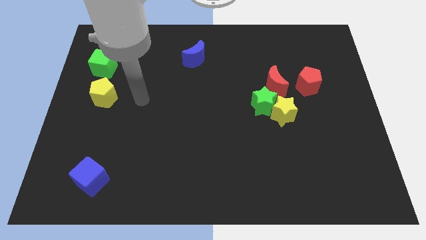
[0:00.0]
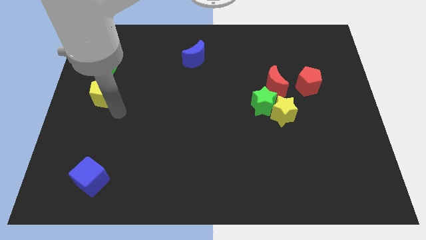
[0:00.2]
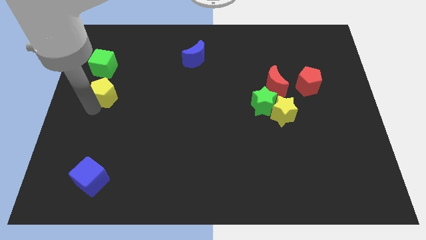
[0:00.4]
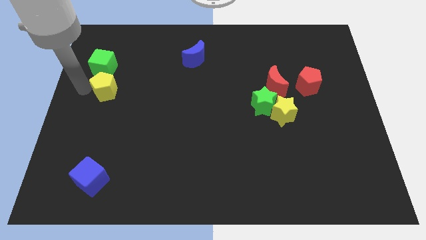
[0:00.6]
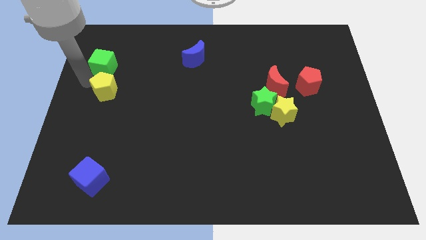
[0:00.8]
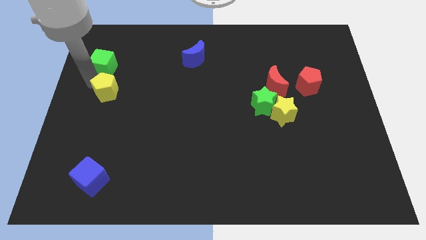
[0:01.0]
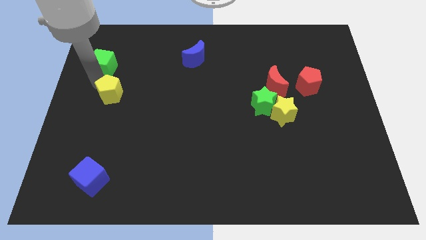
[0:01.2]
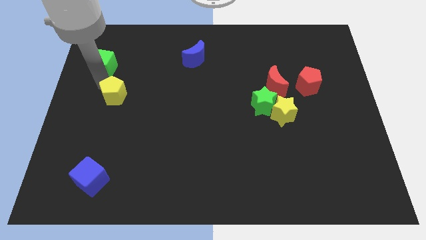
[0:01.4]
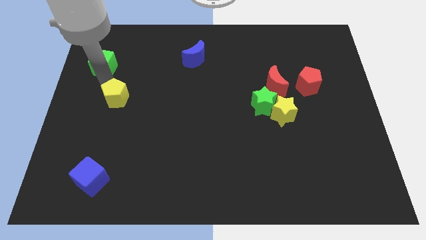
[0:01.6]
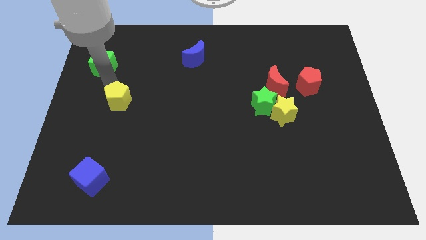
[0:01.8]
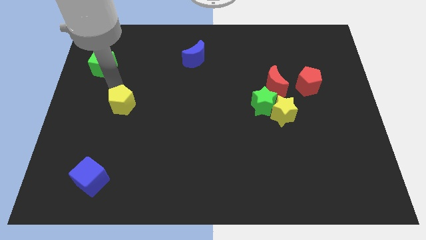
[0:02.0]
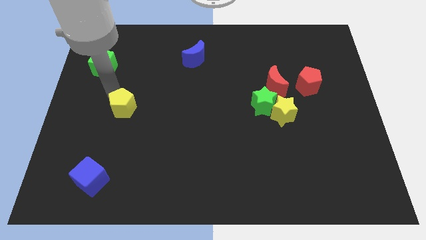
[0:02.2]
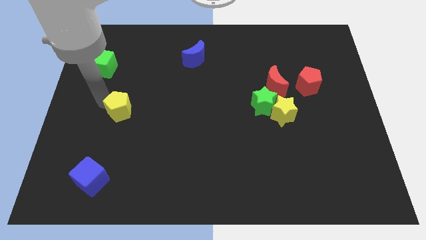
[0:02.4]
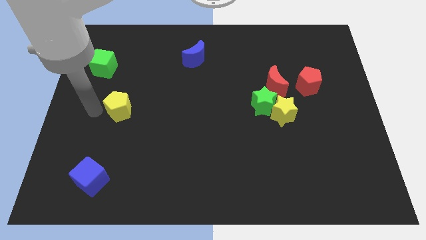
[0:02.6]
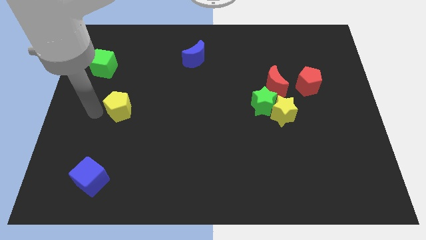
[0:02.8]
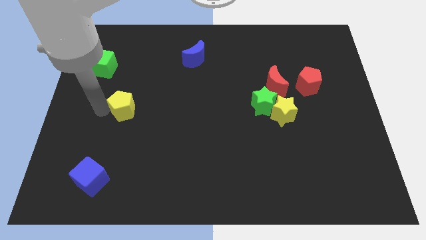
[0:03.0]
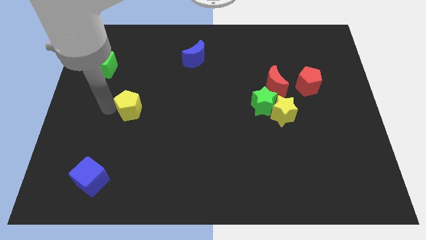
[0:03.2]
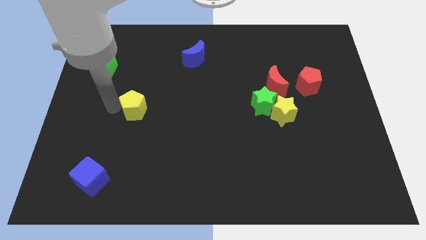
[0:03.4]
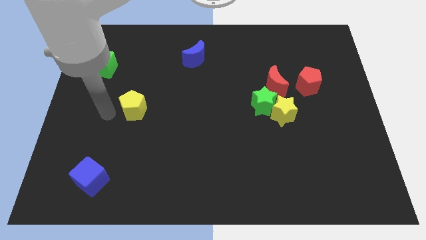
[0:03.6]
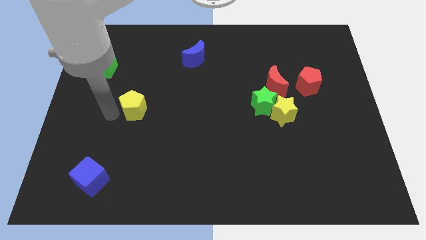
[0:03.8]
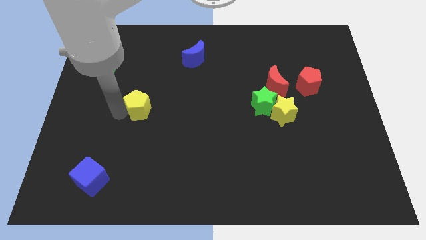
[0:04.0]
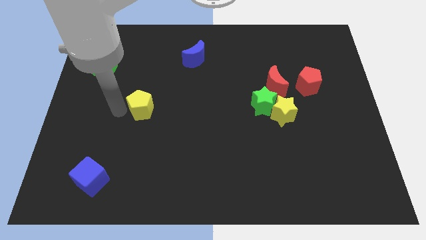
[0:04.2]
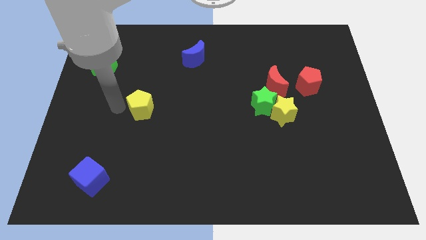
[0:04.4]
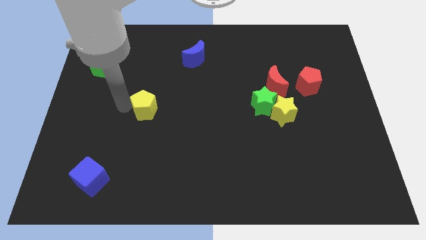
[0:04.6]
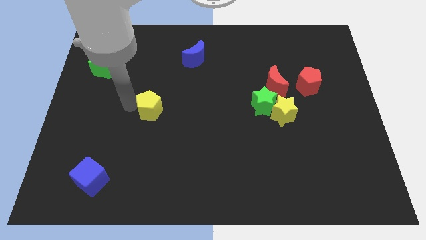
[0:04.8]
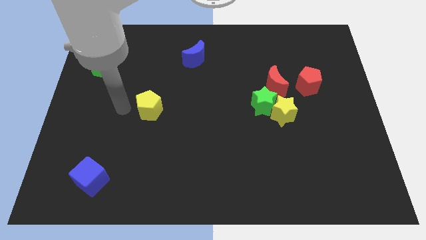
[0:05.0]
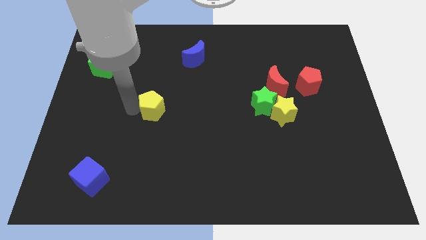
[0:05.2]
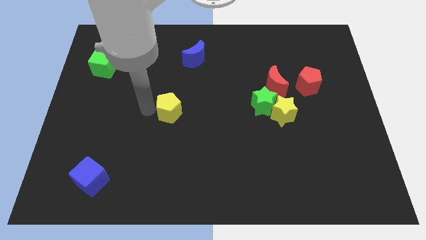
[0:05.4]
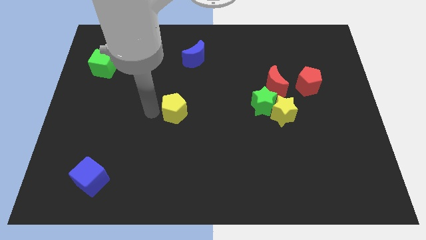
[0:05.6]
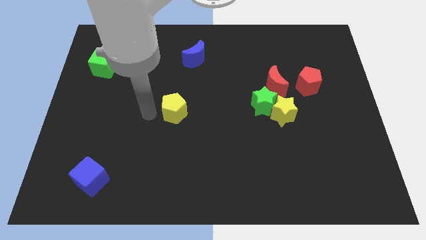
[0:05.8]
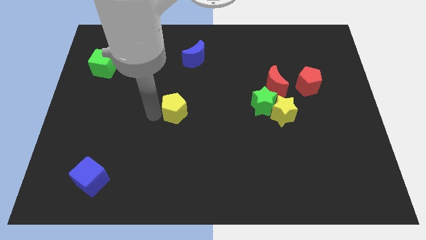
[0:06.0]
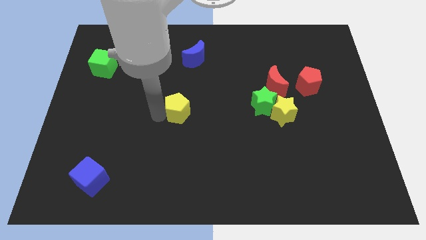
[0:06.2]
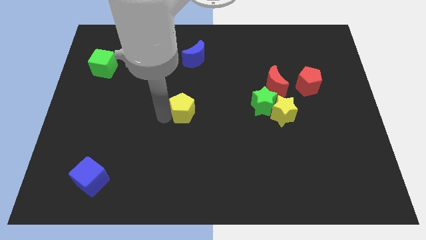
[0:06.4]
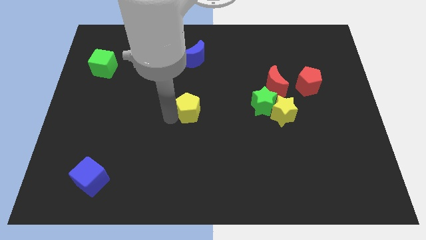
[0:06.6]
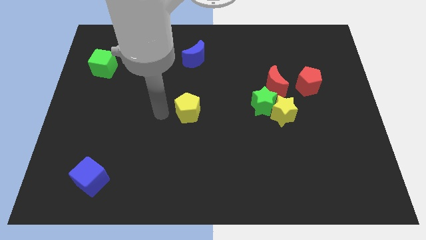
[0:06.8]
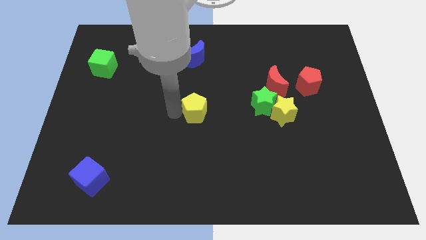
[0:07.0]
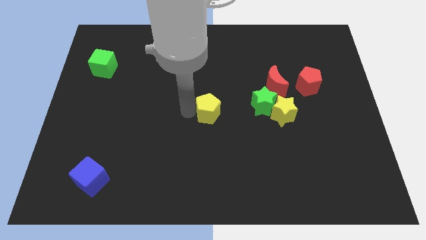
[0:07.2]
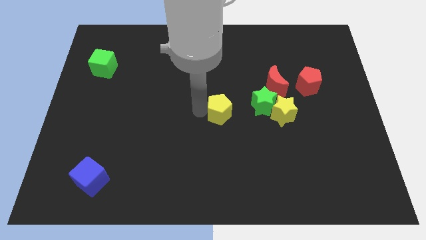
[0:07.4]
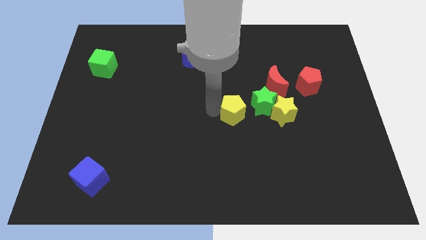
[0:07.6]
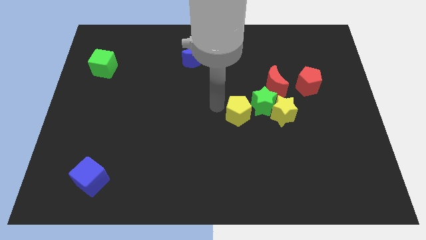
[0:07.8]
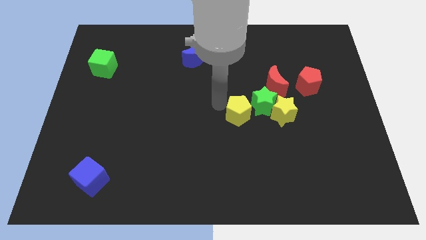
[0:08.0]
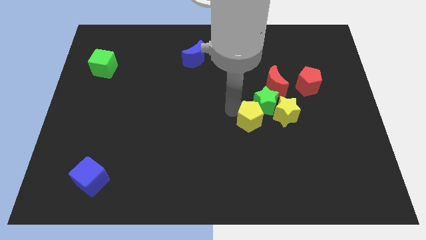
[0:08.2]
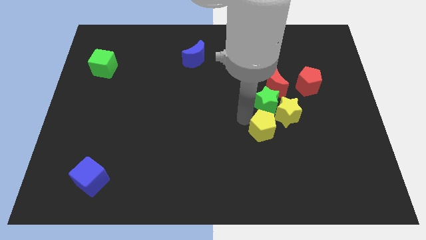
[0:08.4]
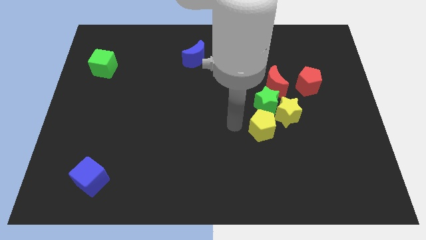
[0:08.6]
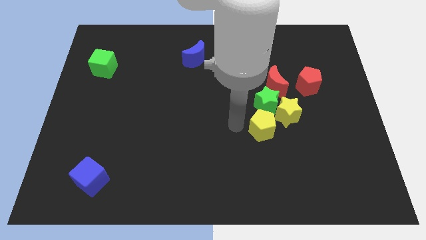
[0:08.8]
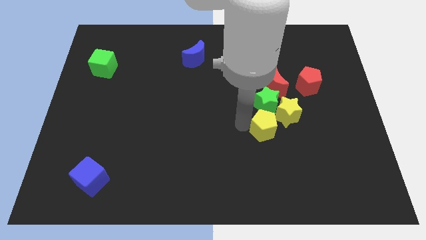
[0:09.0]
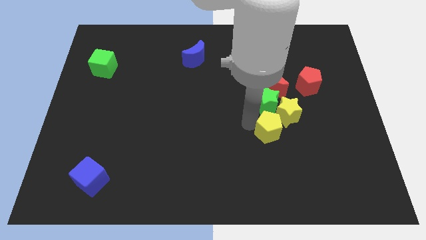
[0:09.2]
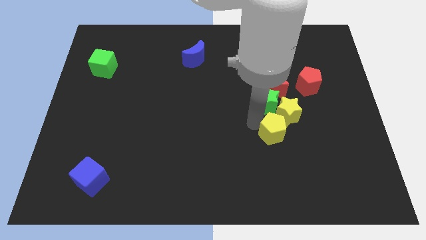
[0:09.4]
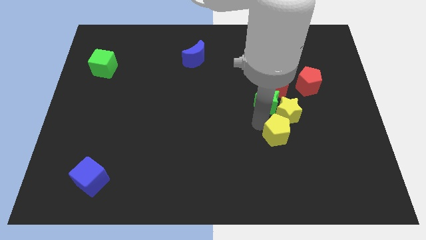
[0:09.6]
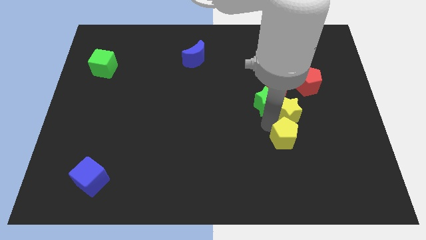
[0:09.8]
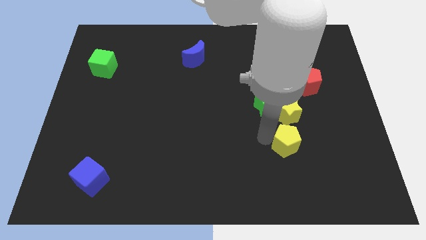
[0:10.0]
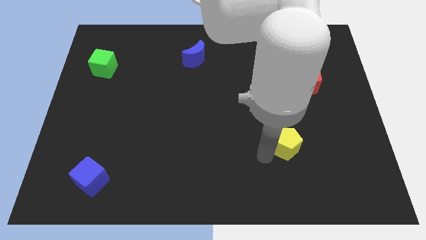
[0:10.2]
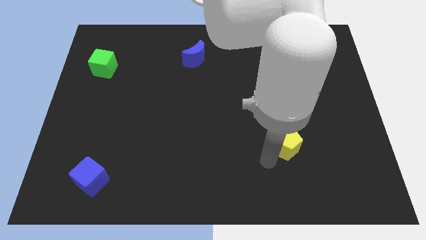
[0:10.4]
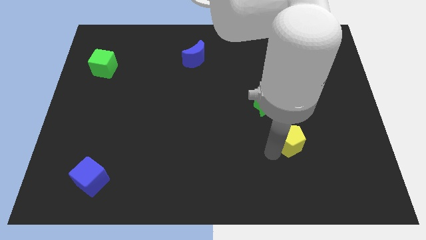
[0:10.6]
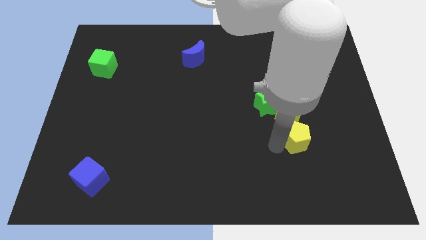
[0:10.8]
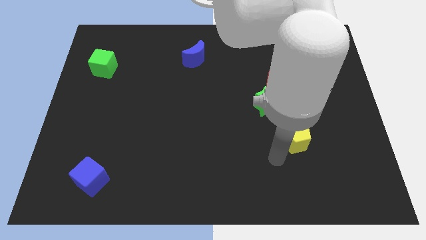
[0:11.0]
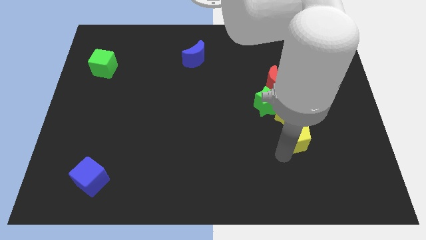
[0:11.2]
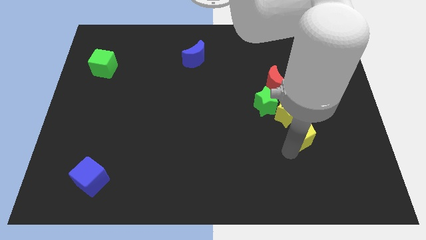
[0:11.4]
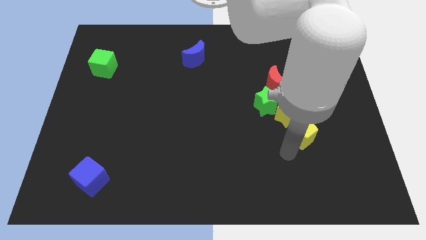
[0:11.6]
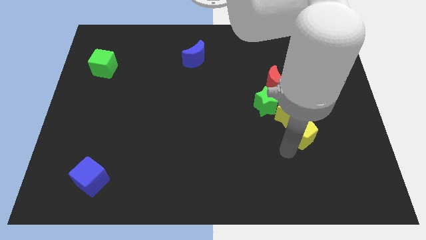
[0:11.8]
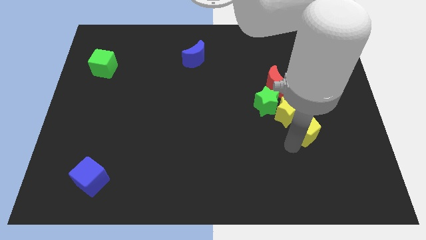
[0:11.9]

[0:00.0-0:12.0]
push the yellow pentagon to the bottom of the red pentagon
